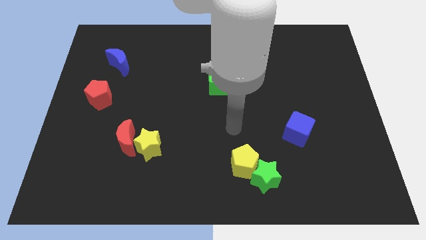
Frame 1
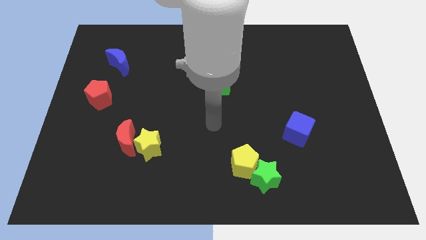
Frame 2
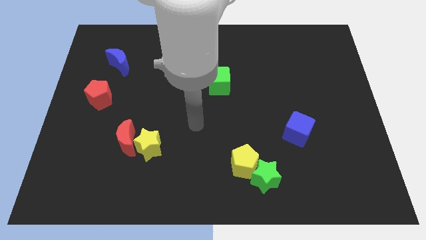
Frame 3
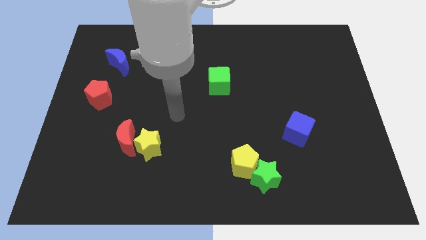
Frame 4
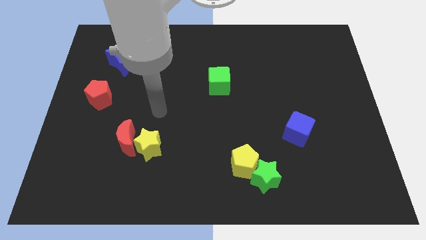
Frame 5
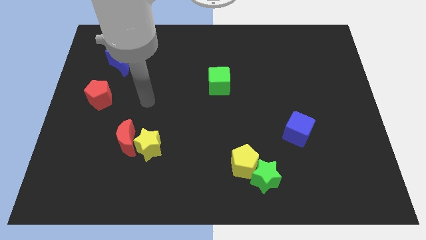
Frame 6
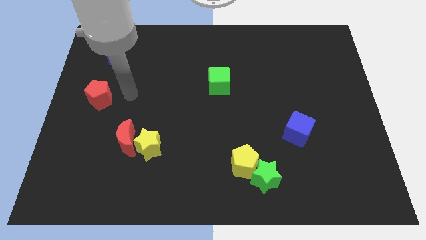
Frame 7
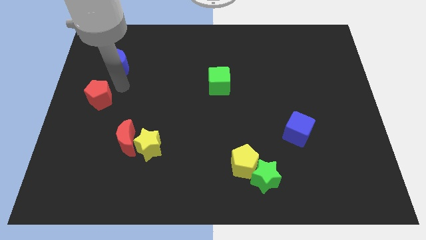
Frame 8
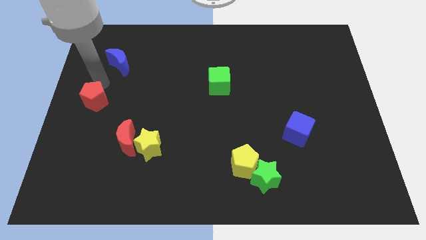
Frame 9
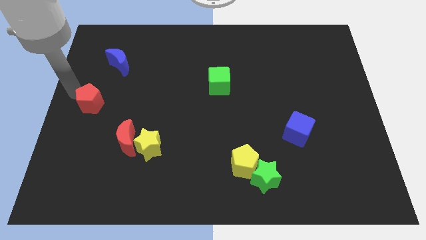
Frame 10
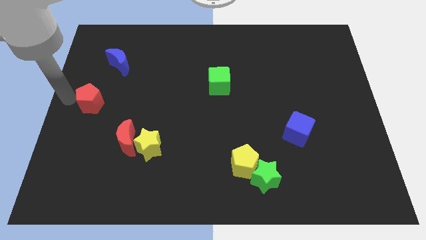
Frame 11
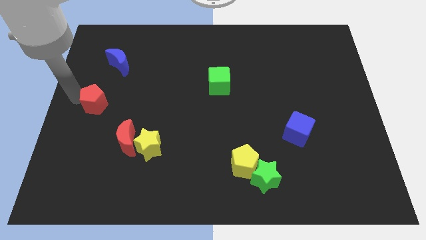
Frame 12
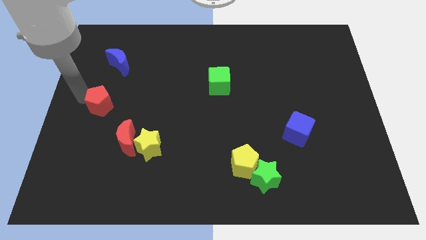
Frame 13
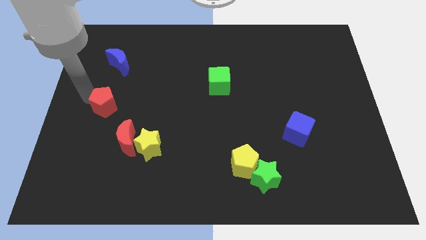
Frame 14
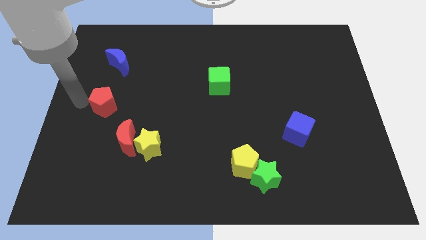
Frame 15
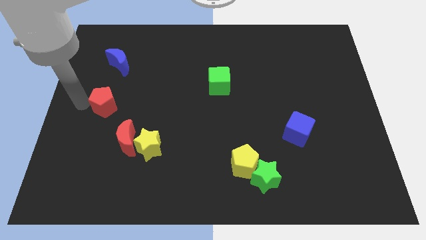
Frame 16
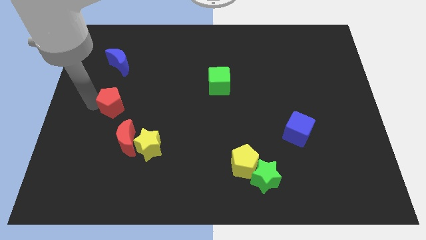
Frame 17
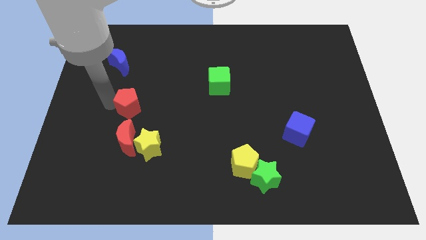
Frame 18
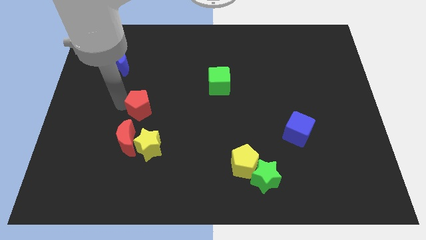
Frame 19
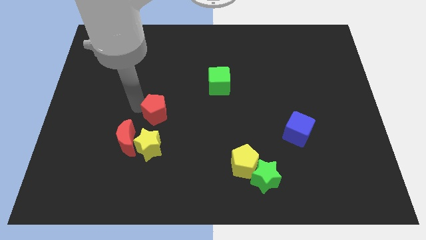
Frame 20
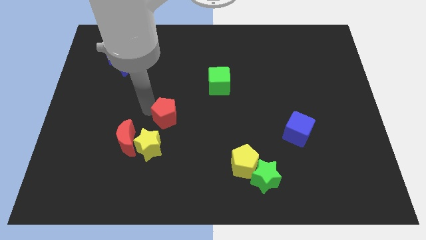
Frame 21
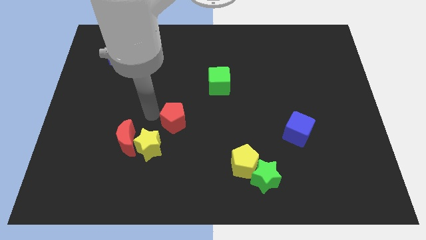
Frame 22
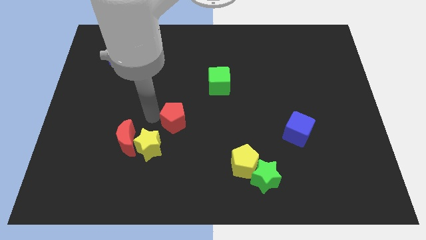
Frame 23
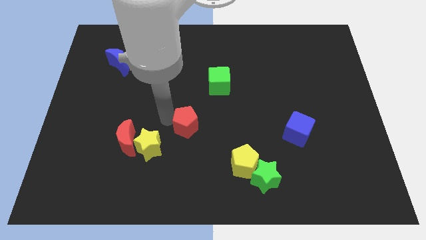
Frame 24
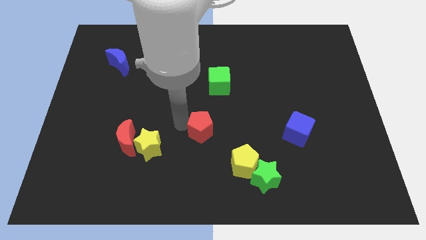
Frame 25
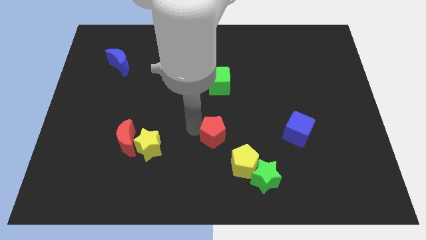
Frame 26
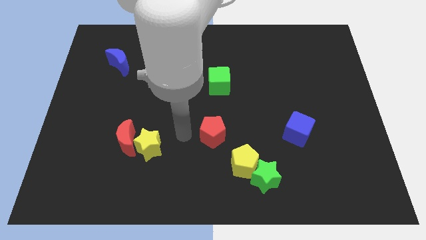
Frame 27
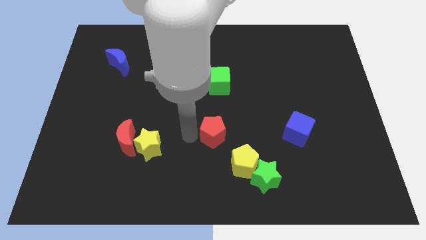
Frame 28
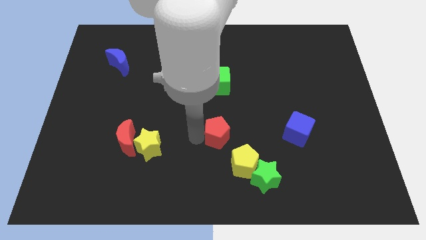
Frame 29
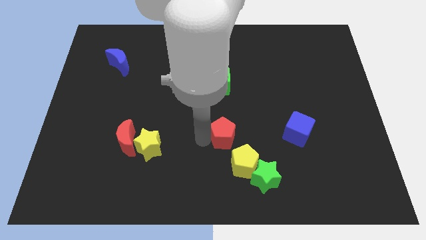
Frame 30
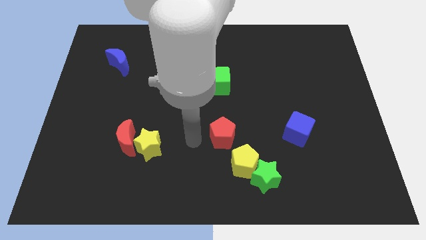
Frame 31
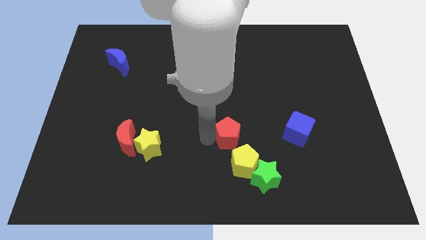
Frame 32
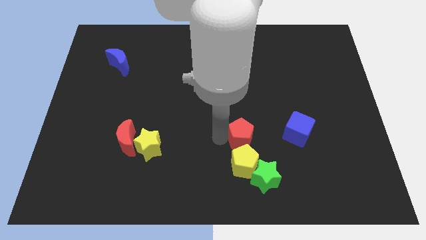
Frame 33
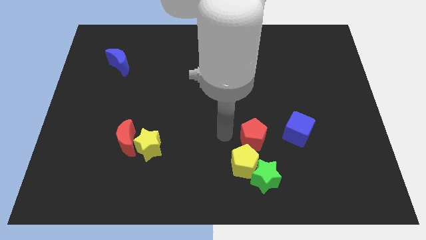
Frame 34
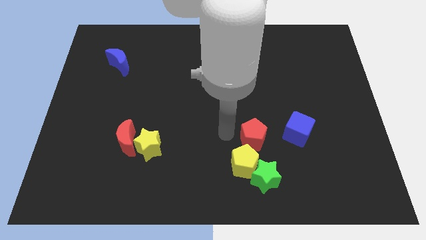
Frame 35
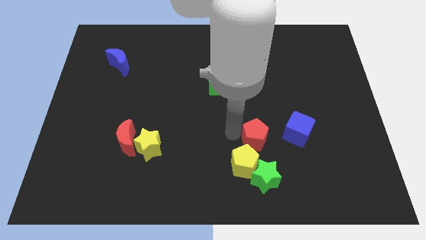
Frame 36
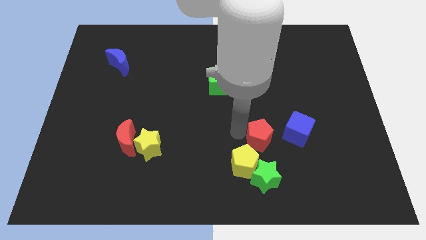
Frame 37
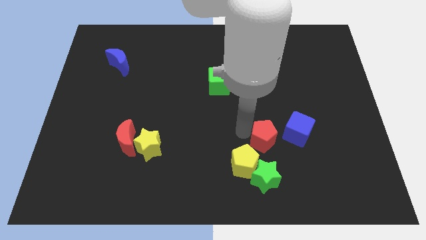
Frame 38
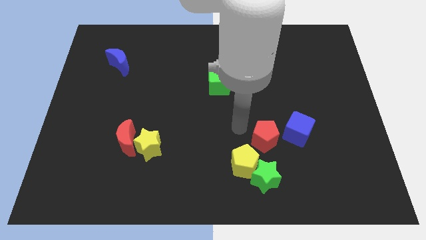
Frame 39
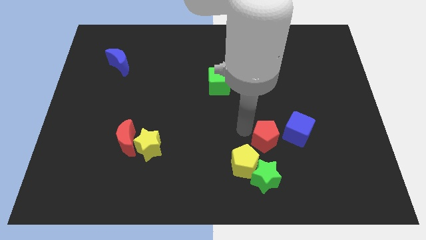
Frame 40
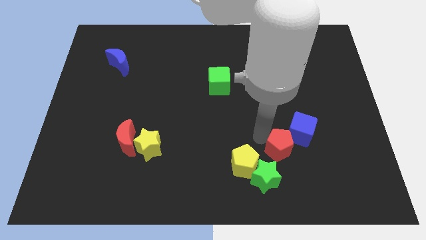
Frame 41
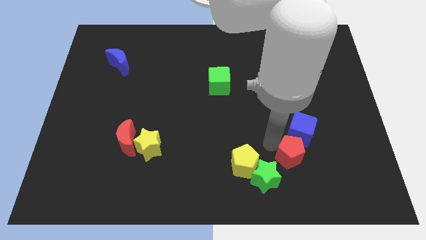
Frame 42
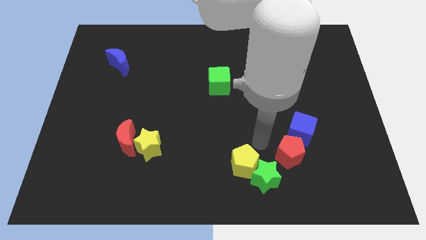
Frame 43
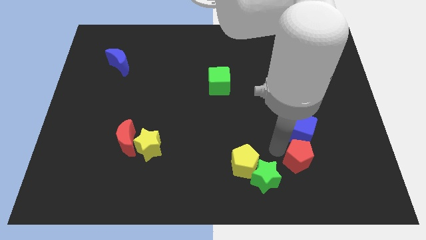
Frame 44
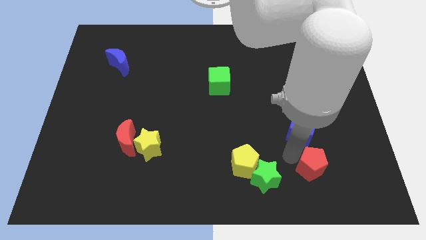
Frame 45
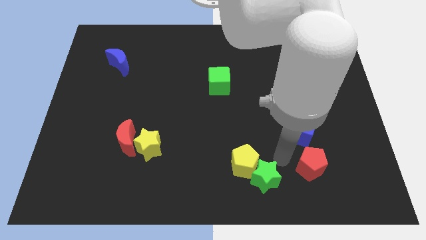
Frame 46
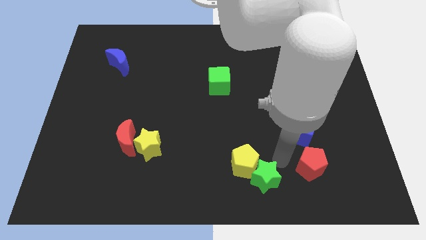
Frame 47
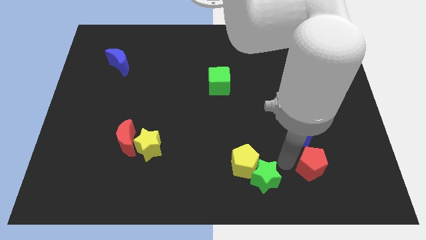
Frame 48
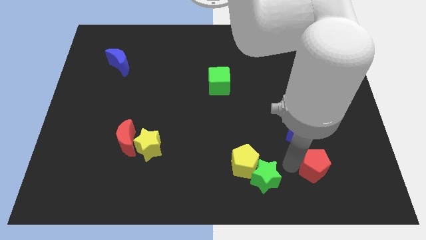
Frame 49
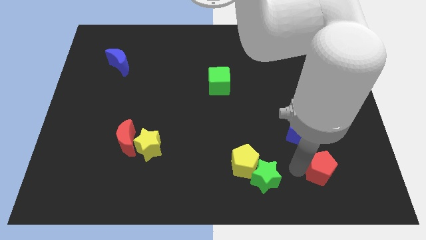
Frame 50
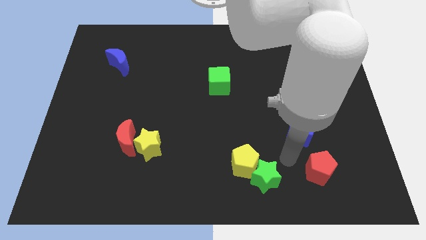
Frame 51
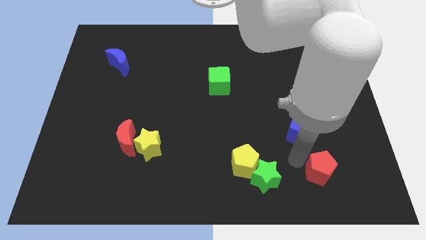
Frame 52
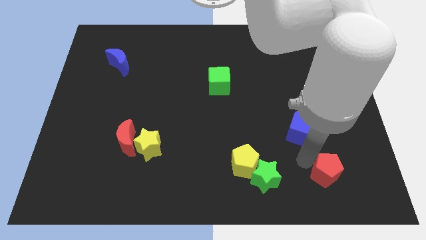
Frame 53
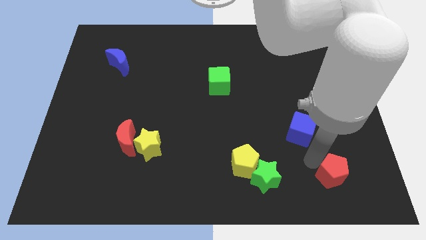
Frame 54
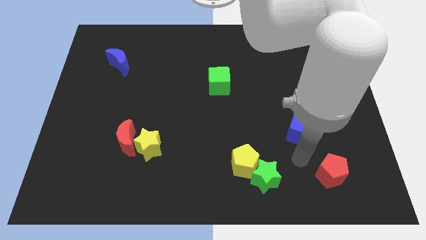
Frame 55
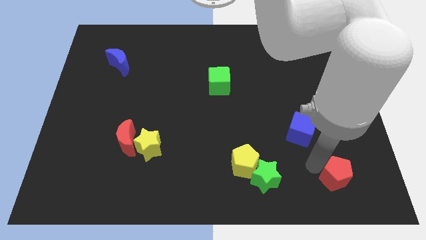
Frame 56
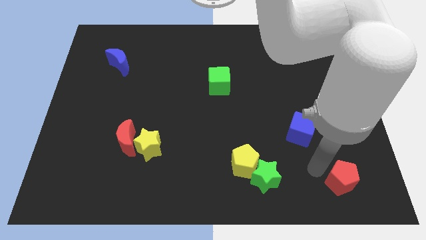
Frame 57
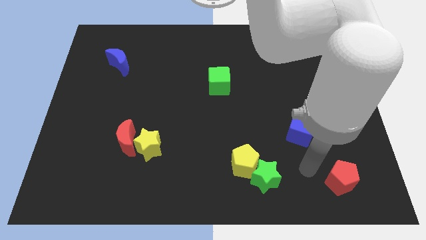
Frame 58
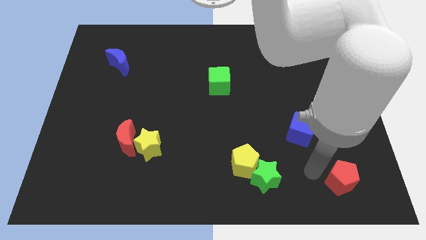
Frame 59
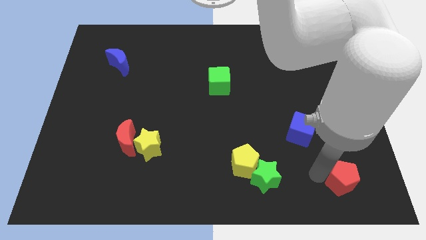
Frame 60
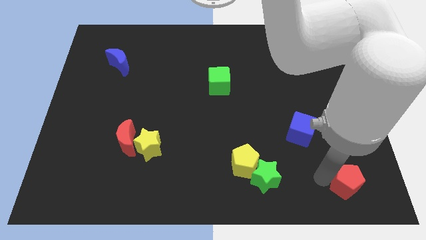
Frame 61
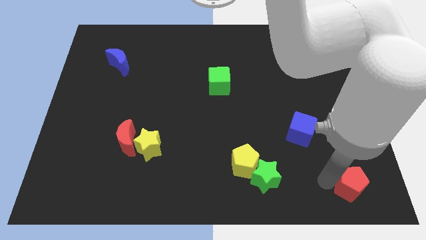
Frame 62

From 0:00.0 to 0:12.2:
slide the red pentagon to the bottom right corner
